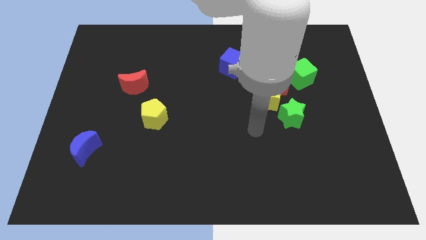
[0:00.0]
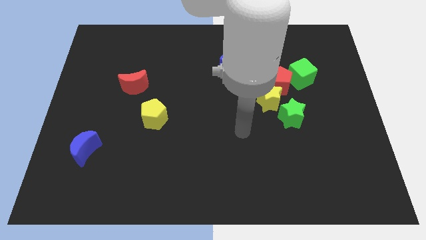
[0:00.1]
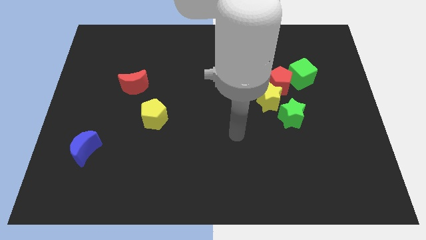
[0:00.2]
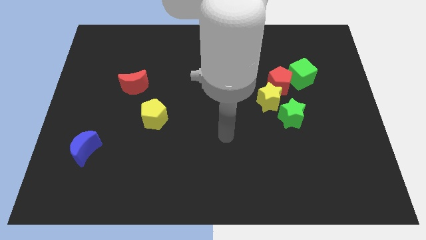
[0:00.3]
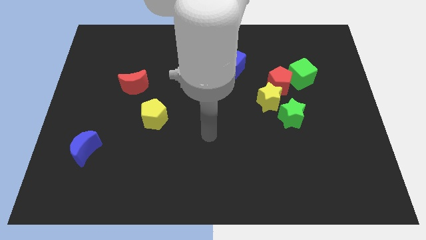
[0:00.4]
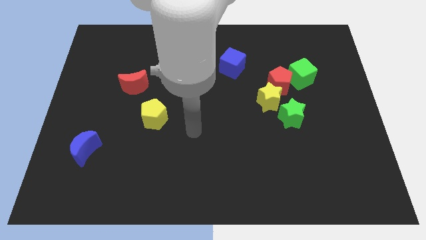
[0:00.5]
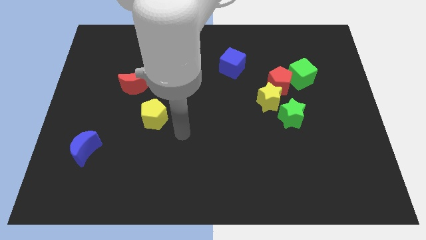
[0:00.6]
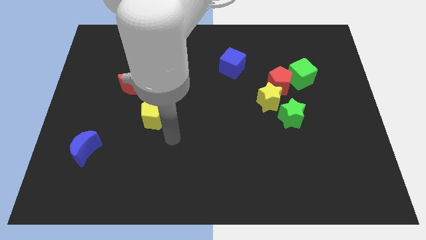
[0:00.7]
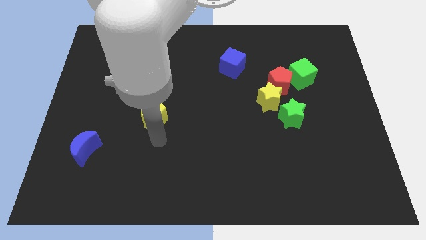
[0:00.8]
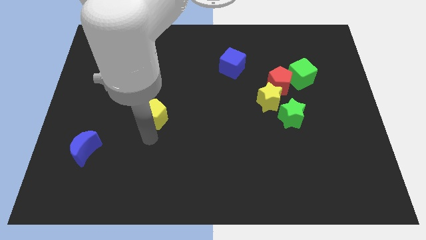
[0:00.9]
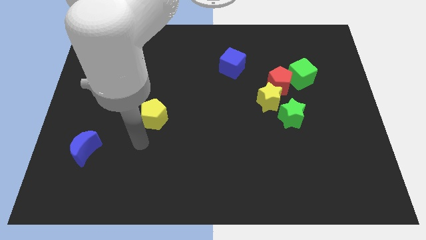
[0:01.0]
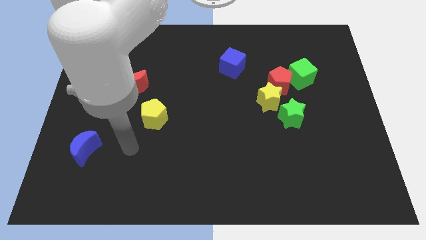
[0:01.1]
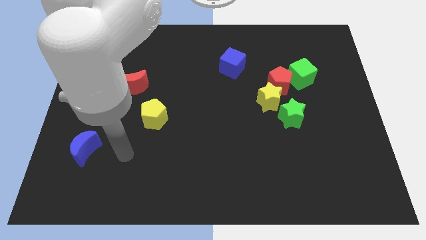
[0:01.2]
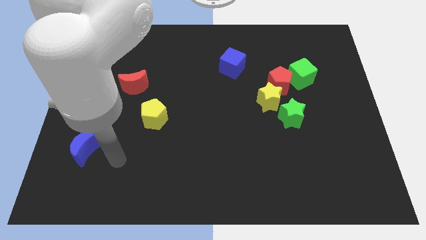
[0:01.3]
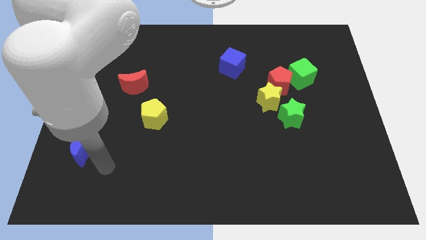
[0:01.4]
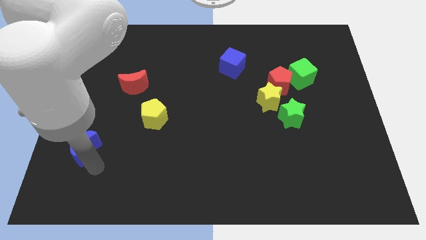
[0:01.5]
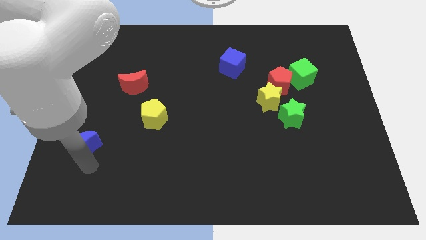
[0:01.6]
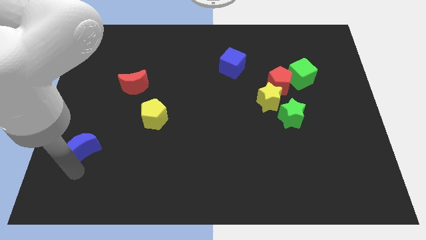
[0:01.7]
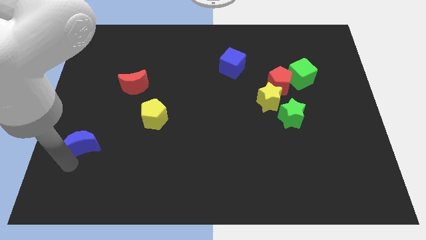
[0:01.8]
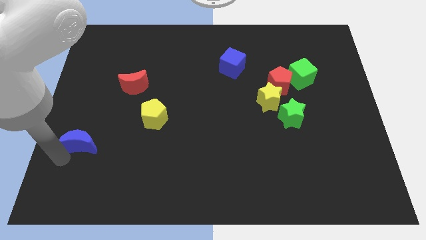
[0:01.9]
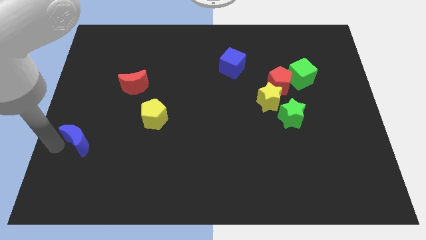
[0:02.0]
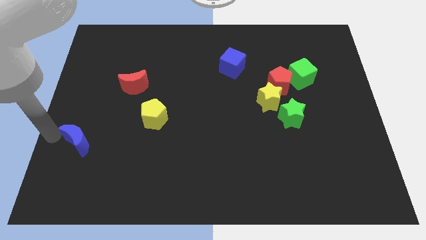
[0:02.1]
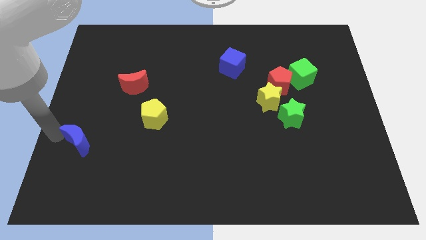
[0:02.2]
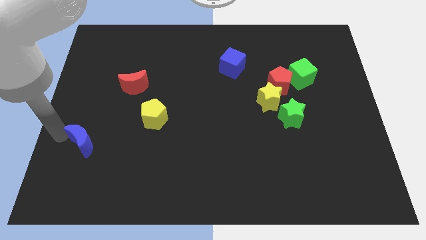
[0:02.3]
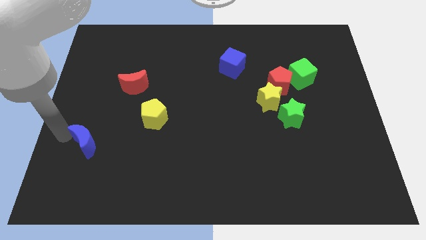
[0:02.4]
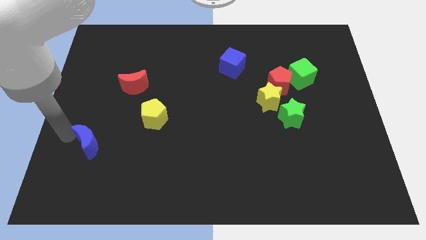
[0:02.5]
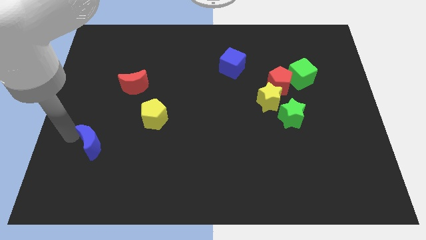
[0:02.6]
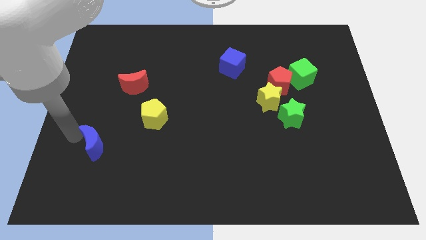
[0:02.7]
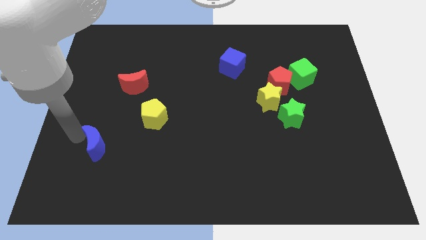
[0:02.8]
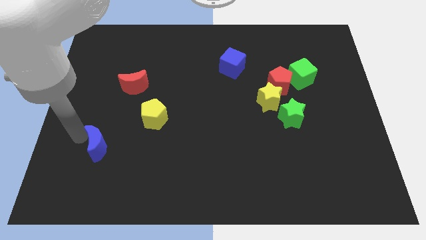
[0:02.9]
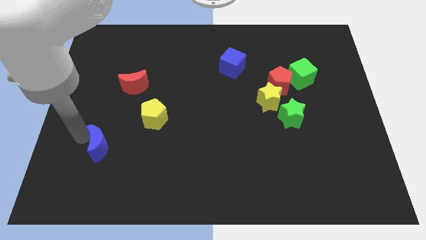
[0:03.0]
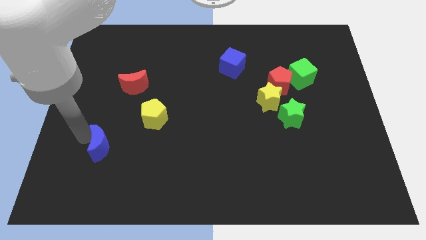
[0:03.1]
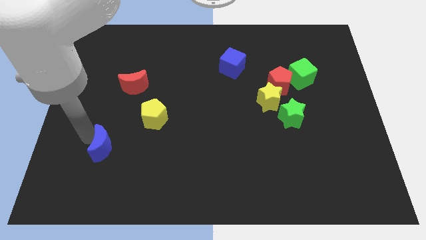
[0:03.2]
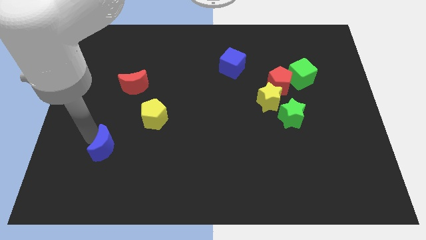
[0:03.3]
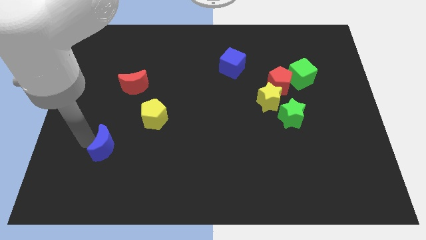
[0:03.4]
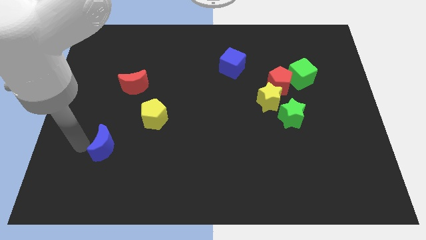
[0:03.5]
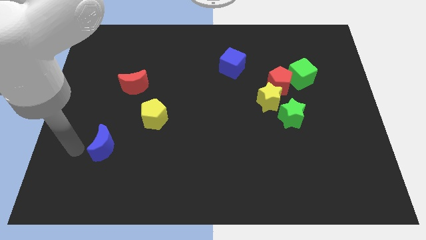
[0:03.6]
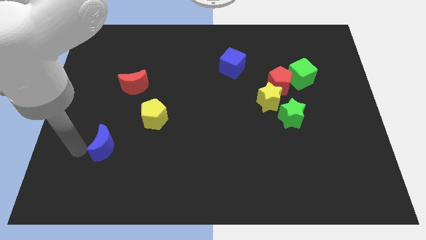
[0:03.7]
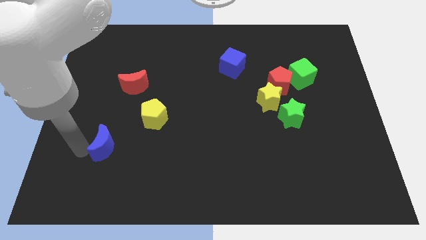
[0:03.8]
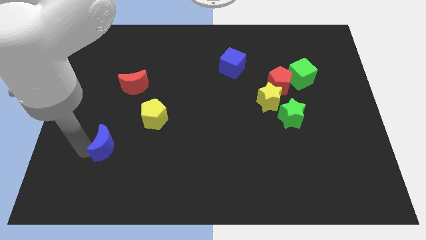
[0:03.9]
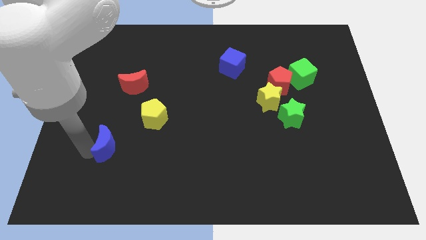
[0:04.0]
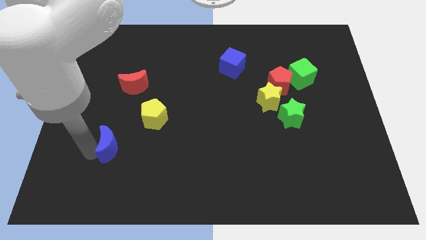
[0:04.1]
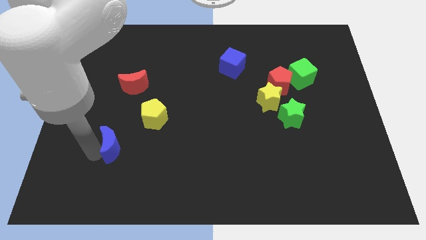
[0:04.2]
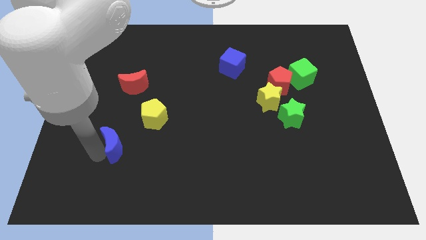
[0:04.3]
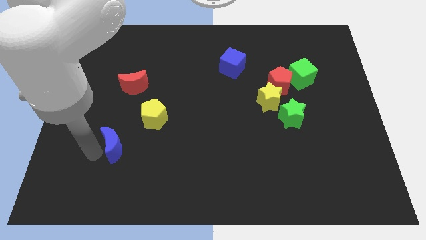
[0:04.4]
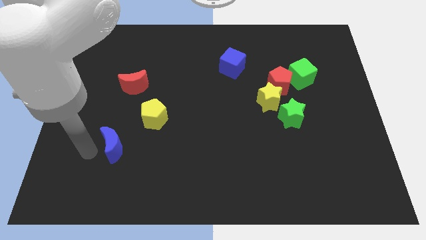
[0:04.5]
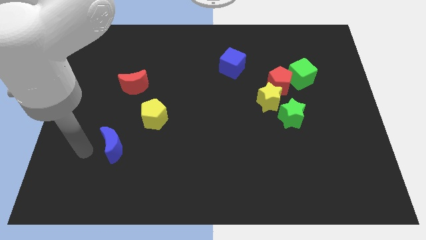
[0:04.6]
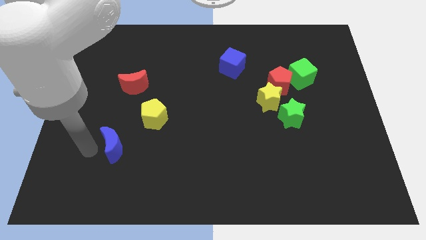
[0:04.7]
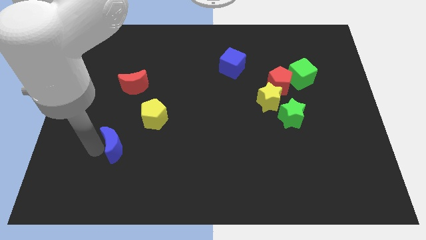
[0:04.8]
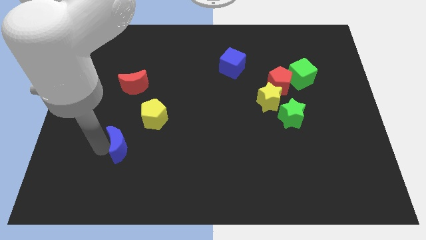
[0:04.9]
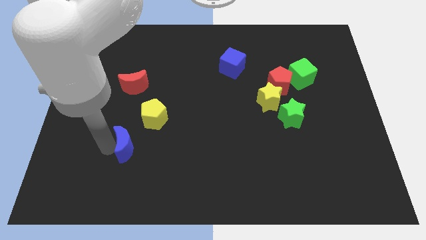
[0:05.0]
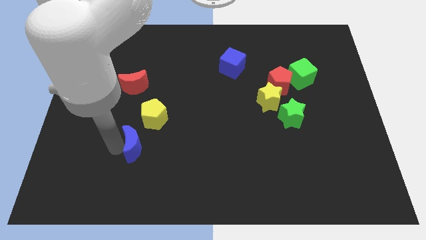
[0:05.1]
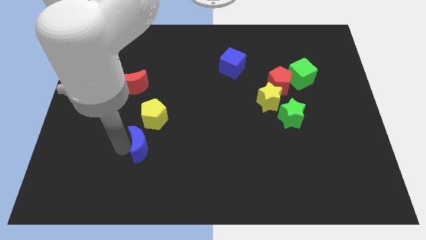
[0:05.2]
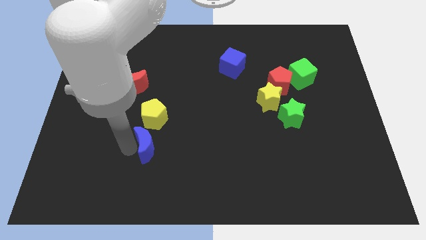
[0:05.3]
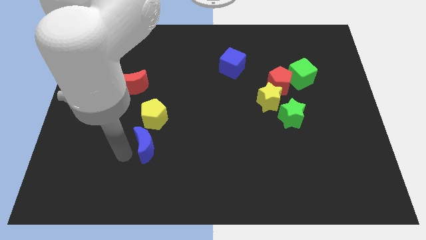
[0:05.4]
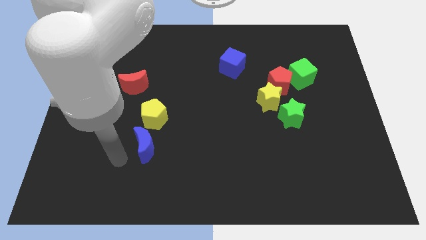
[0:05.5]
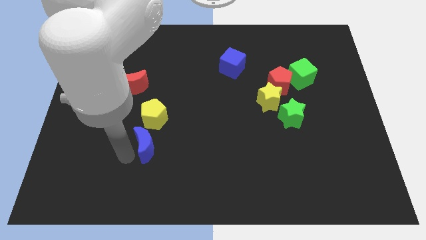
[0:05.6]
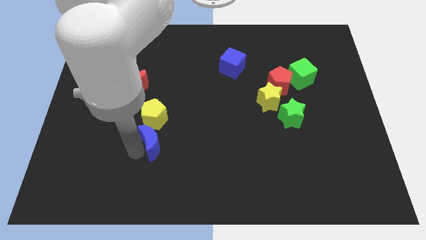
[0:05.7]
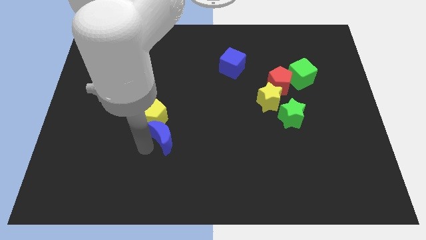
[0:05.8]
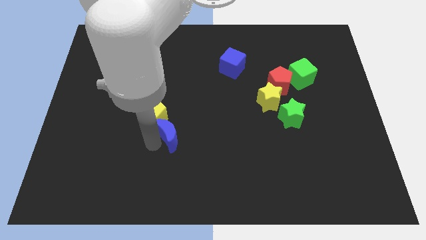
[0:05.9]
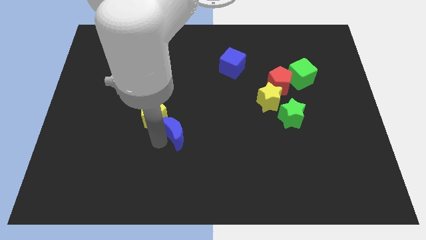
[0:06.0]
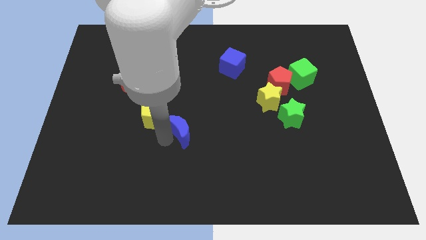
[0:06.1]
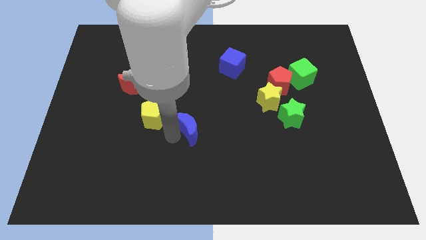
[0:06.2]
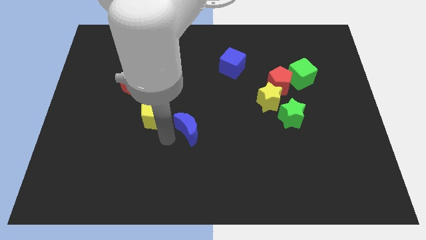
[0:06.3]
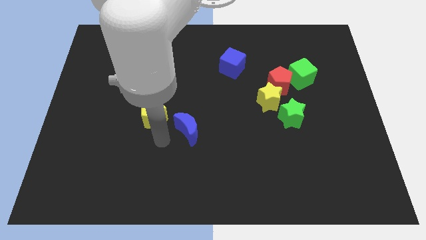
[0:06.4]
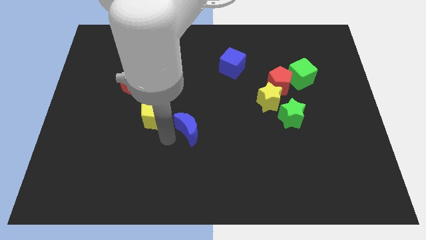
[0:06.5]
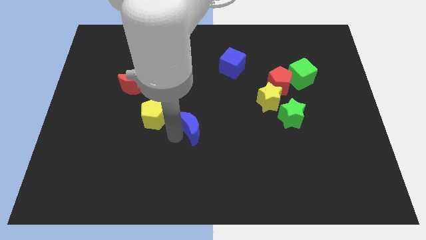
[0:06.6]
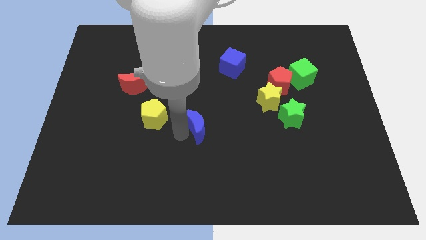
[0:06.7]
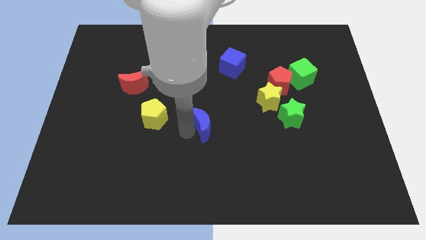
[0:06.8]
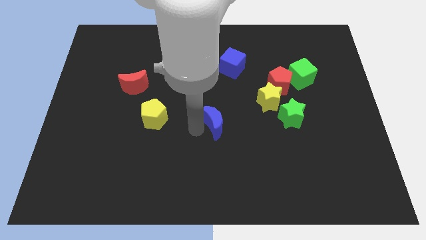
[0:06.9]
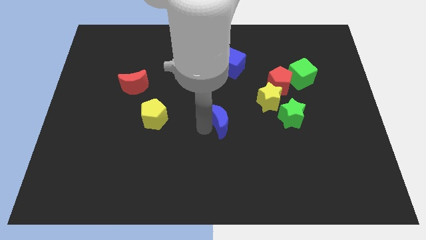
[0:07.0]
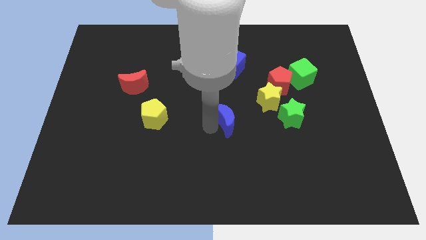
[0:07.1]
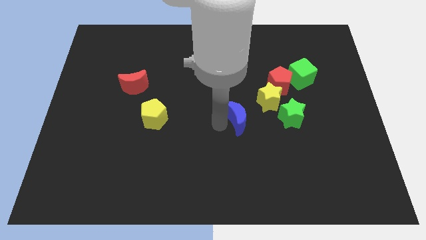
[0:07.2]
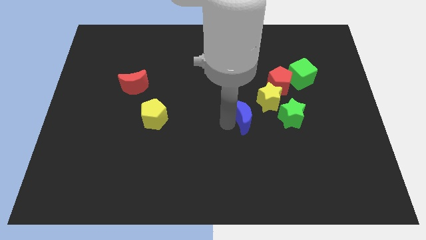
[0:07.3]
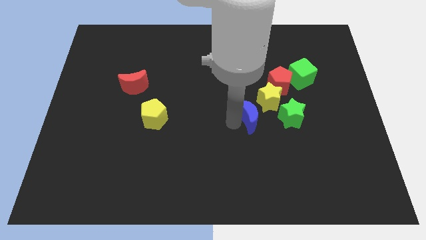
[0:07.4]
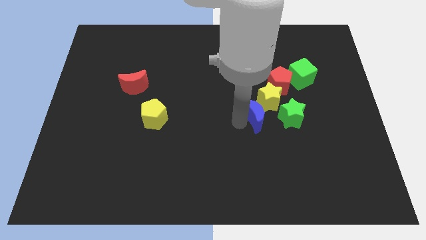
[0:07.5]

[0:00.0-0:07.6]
push the blue moon next to the yellow star

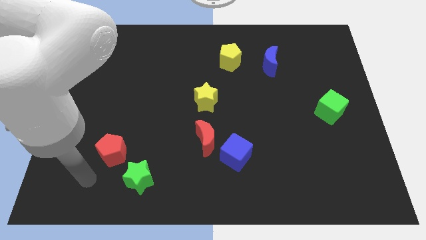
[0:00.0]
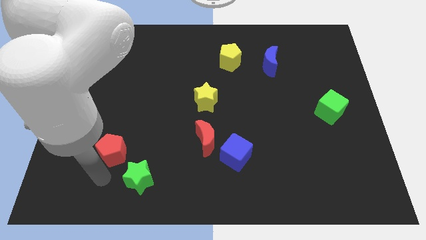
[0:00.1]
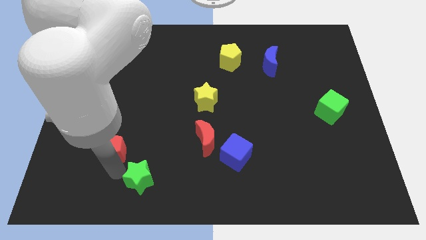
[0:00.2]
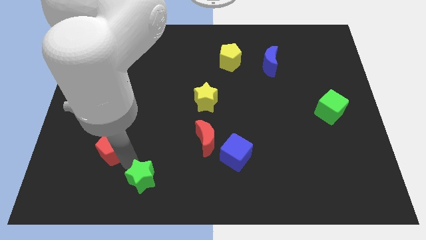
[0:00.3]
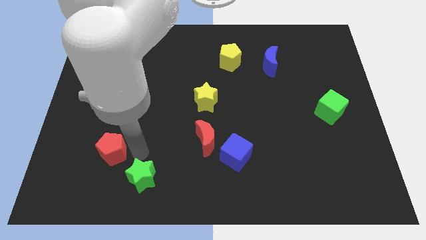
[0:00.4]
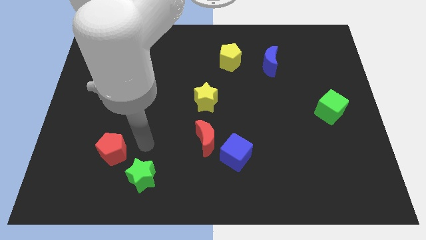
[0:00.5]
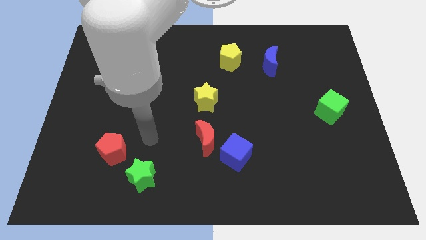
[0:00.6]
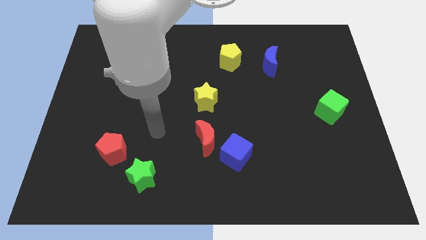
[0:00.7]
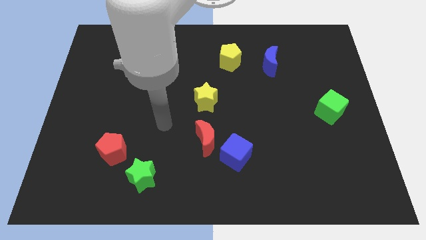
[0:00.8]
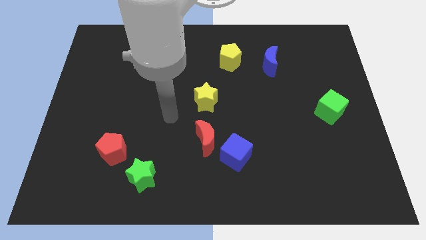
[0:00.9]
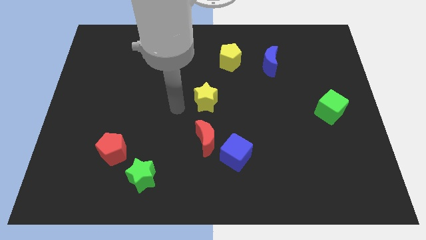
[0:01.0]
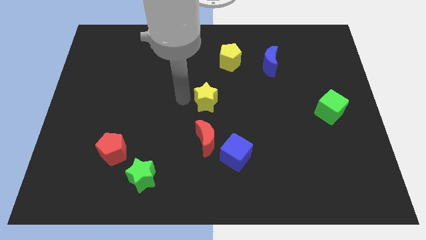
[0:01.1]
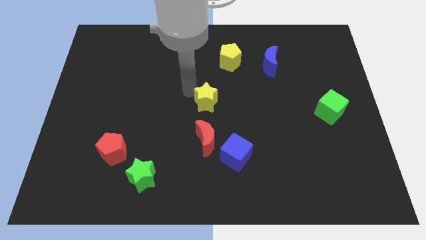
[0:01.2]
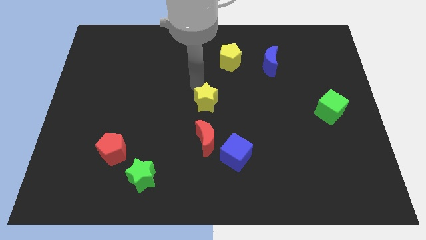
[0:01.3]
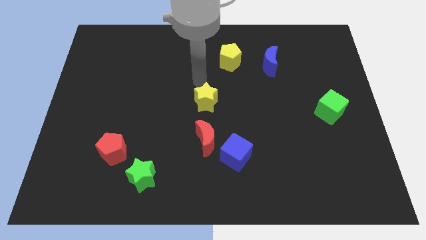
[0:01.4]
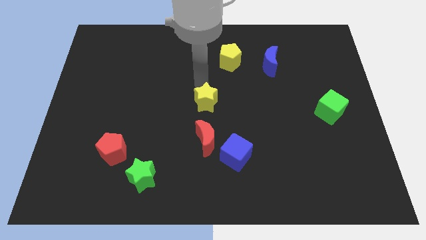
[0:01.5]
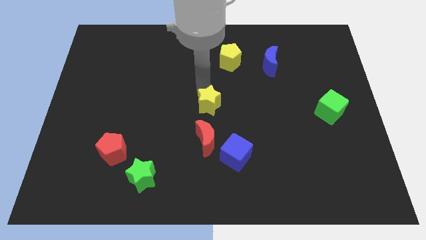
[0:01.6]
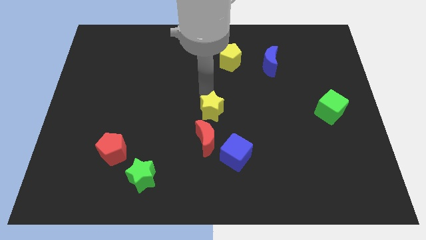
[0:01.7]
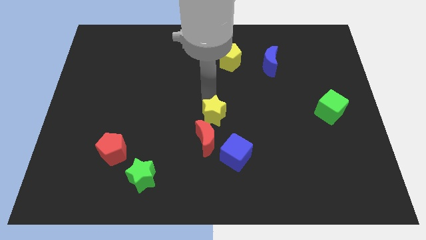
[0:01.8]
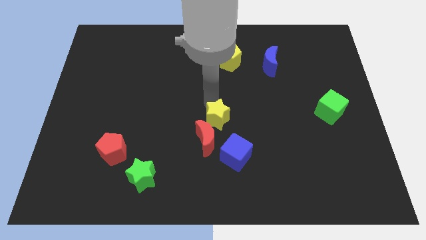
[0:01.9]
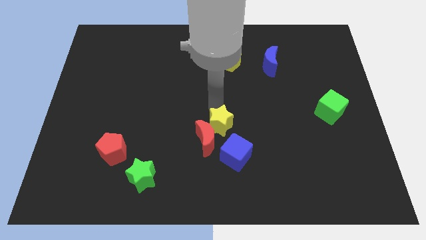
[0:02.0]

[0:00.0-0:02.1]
slide the yellow star next to the red moon
